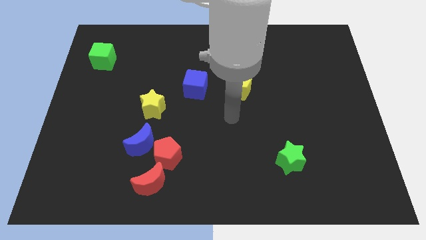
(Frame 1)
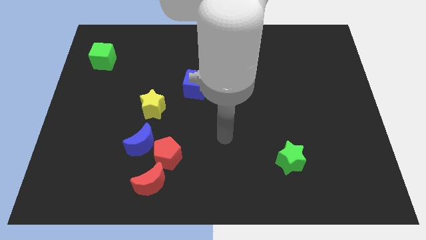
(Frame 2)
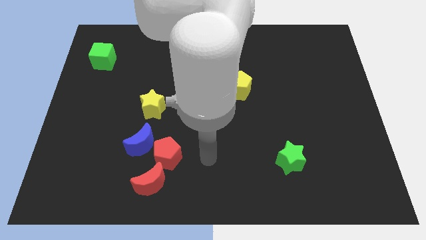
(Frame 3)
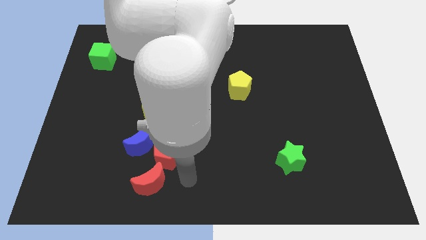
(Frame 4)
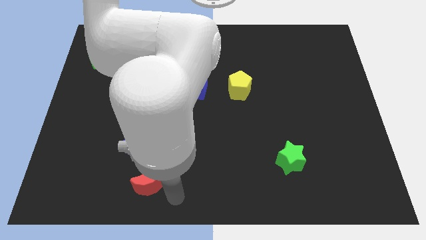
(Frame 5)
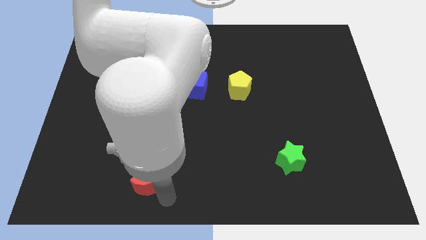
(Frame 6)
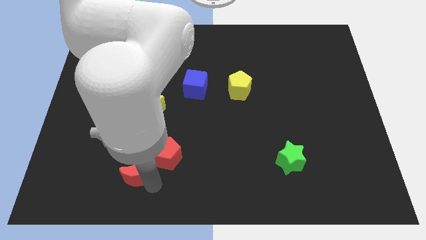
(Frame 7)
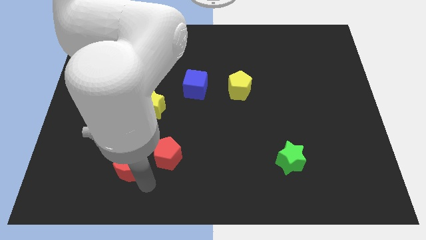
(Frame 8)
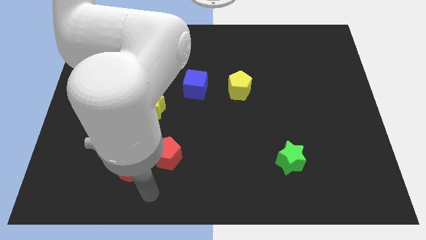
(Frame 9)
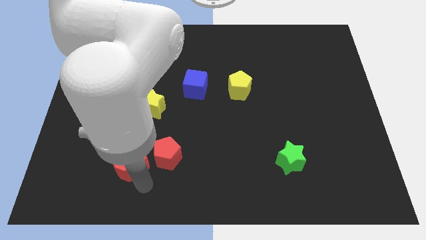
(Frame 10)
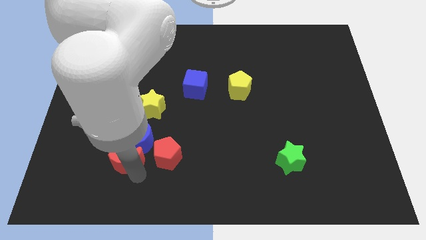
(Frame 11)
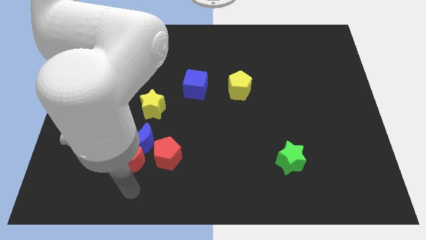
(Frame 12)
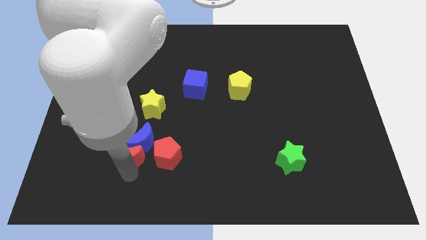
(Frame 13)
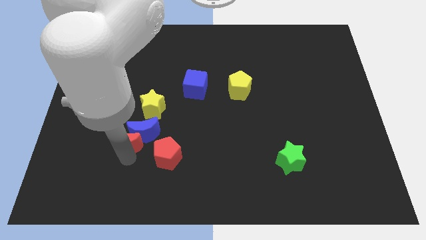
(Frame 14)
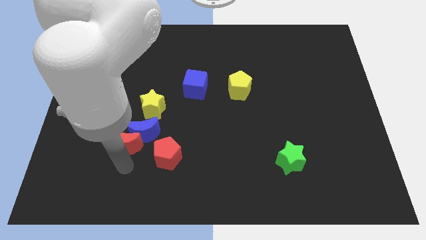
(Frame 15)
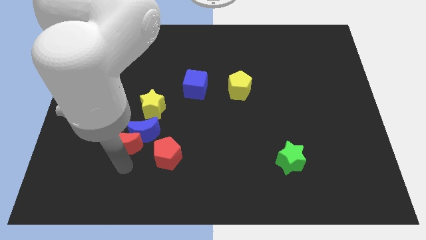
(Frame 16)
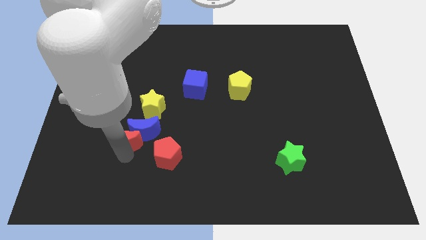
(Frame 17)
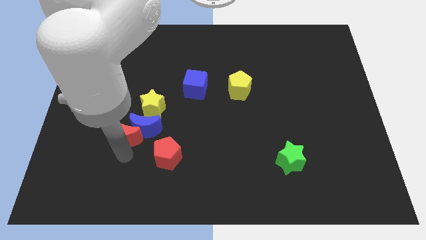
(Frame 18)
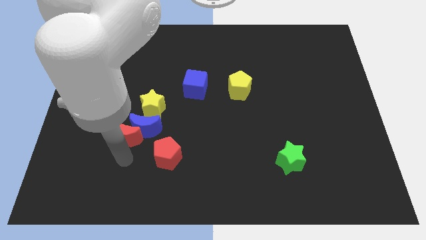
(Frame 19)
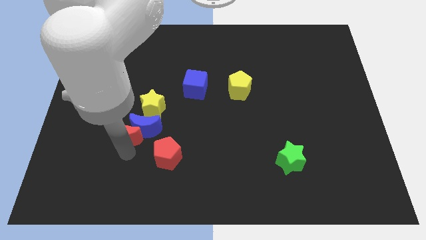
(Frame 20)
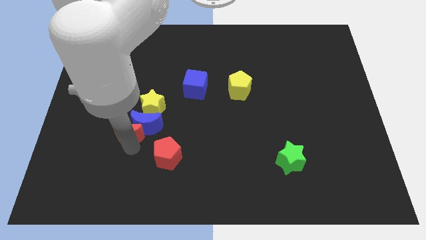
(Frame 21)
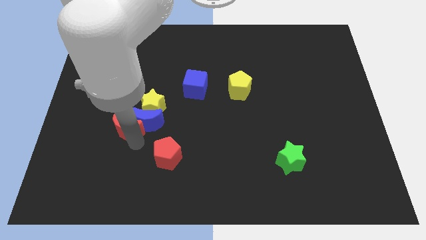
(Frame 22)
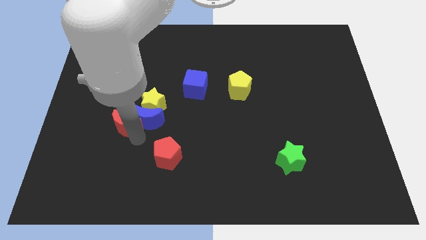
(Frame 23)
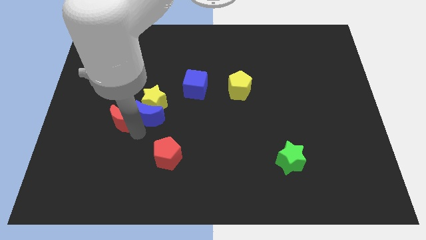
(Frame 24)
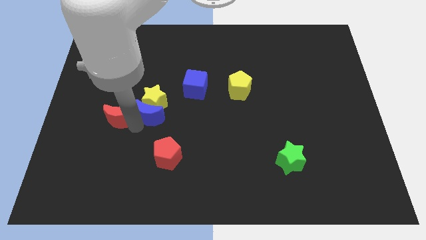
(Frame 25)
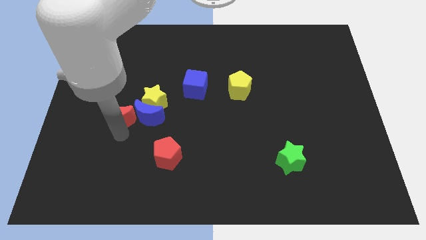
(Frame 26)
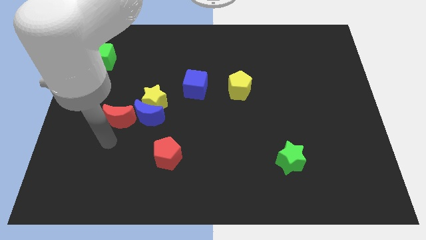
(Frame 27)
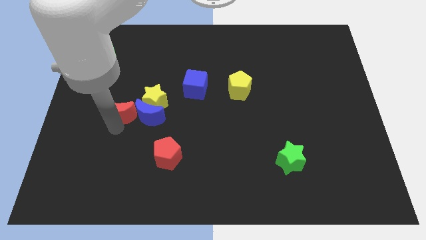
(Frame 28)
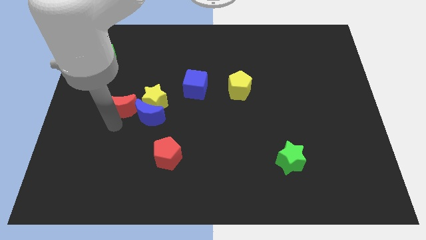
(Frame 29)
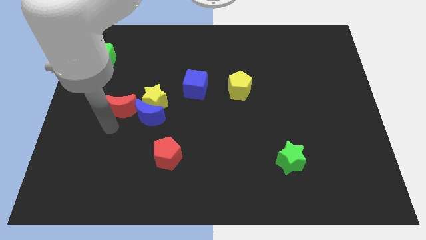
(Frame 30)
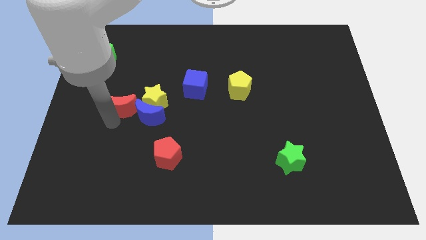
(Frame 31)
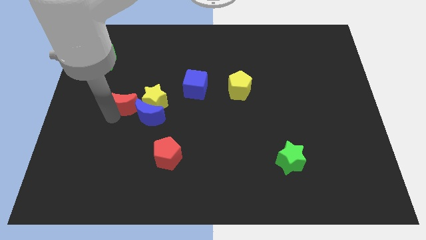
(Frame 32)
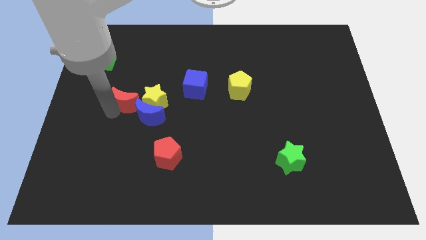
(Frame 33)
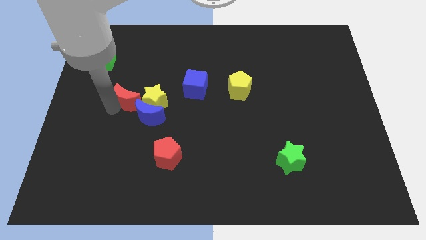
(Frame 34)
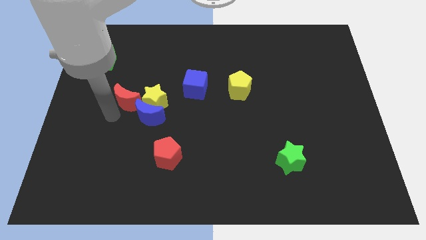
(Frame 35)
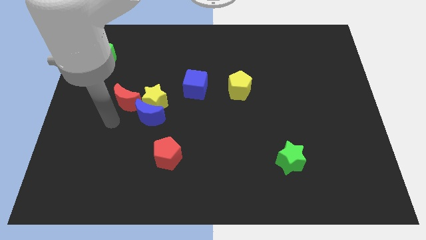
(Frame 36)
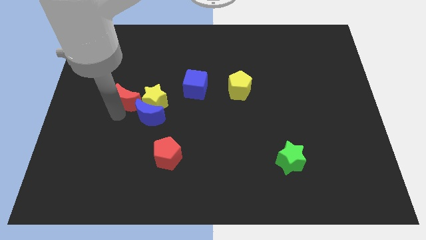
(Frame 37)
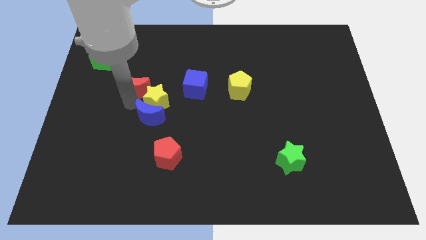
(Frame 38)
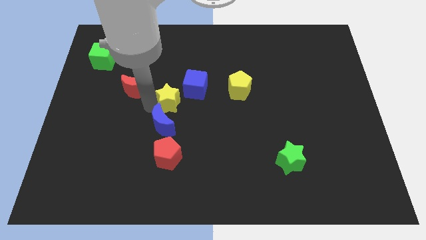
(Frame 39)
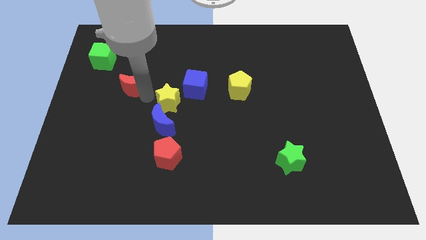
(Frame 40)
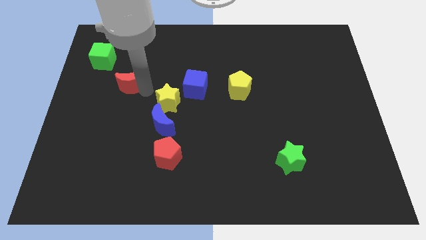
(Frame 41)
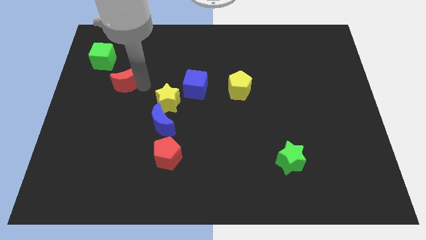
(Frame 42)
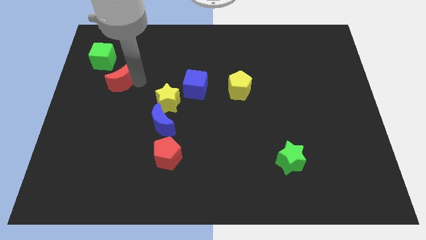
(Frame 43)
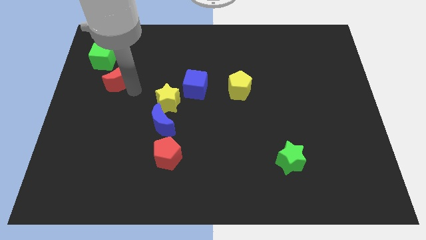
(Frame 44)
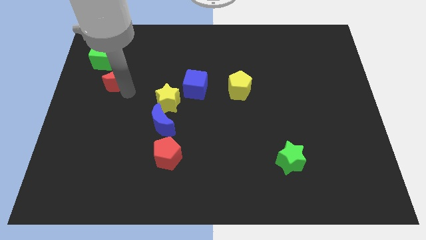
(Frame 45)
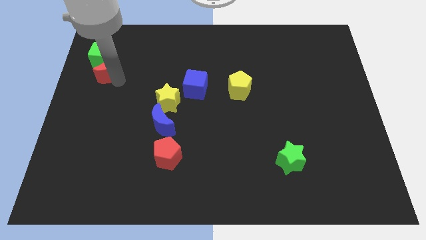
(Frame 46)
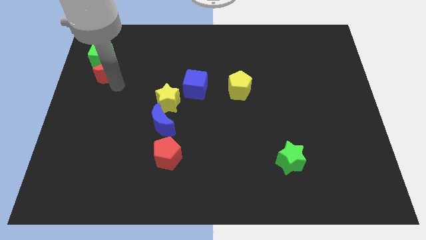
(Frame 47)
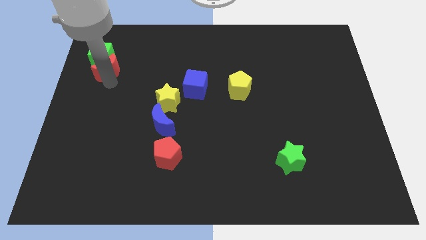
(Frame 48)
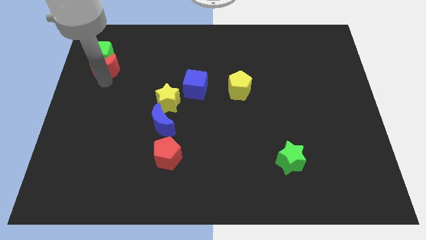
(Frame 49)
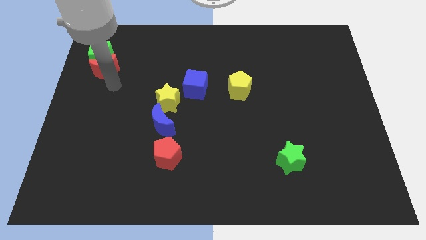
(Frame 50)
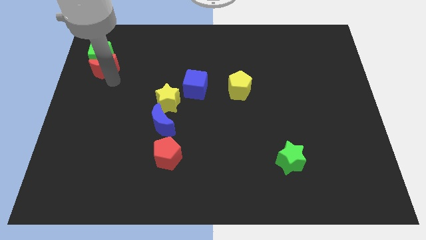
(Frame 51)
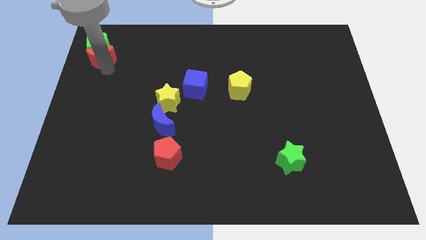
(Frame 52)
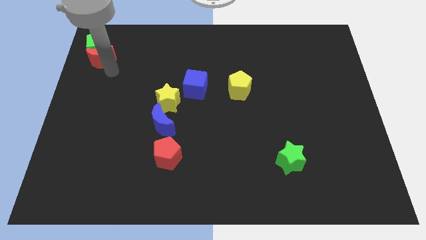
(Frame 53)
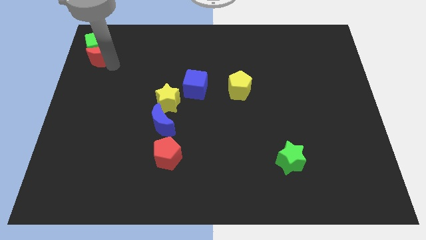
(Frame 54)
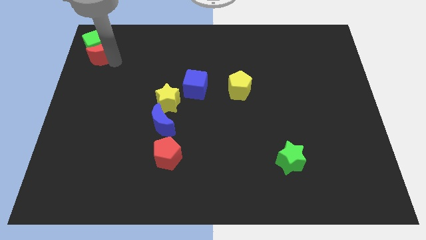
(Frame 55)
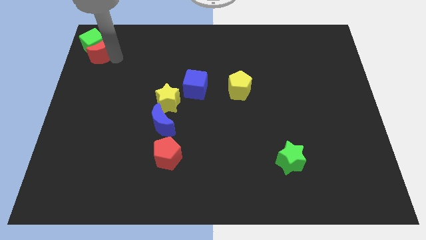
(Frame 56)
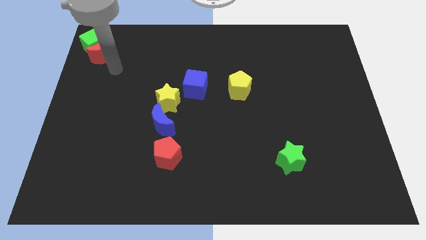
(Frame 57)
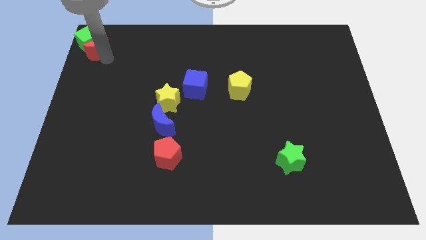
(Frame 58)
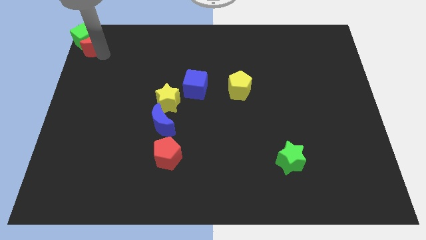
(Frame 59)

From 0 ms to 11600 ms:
slide the red moon to the top left
